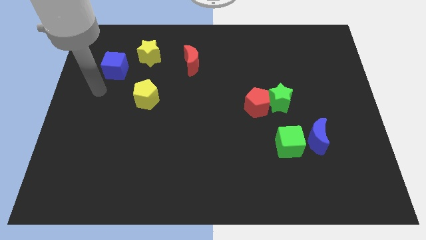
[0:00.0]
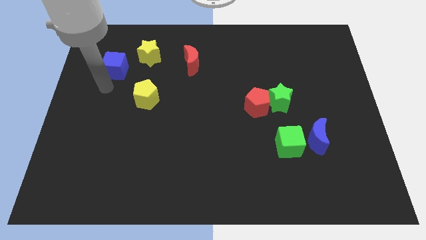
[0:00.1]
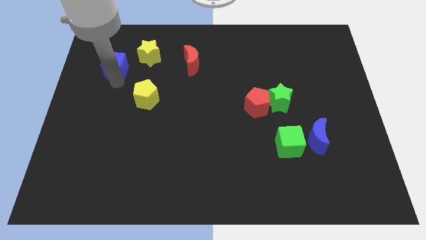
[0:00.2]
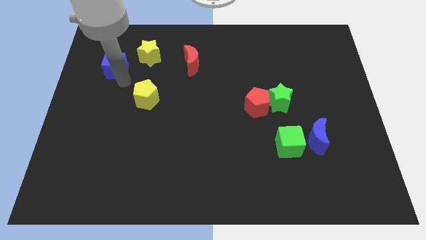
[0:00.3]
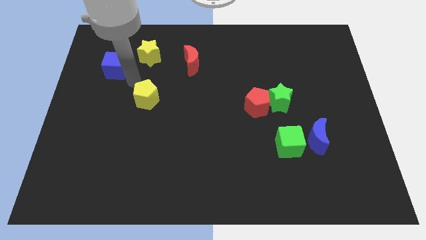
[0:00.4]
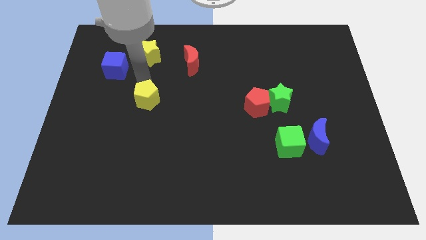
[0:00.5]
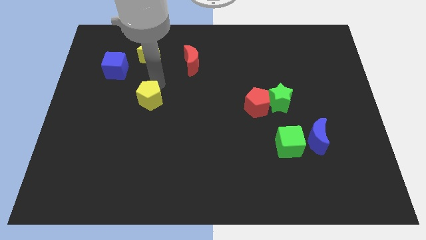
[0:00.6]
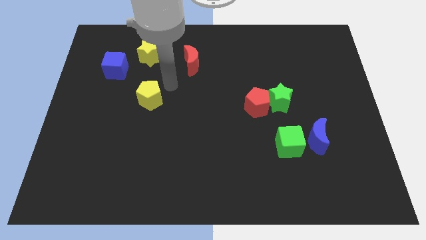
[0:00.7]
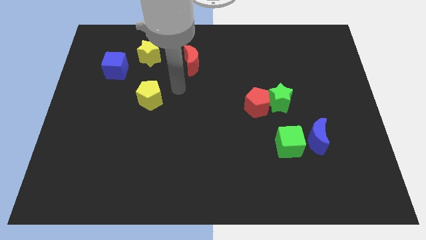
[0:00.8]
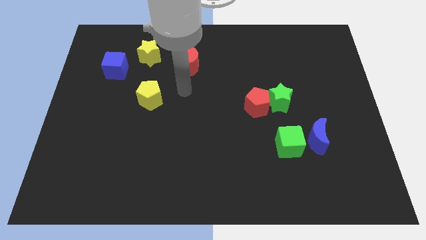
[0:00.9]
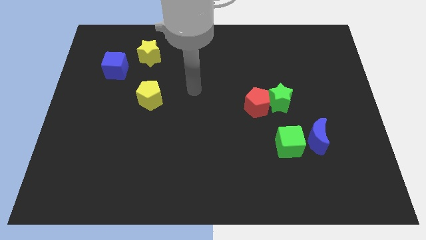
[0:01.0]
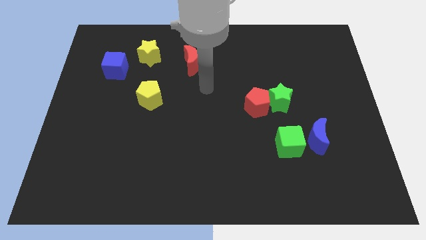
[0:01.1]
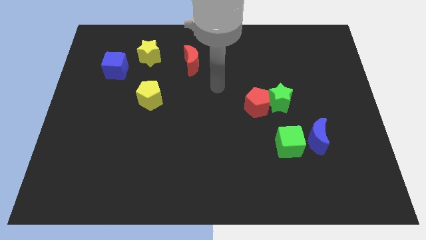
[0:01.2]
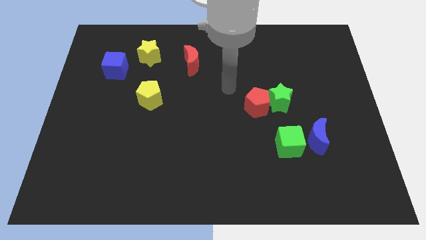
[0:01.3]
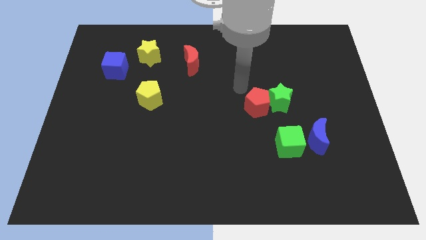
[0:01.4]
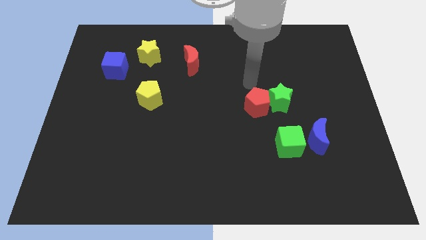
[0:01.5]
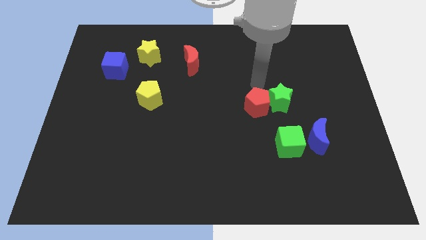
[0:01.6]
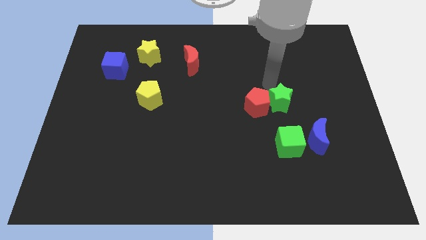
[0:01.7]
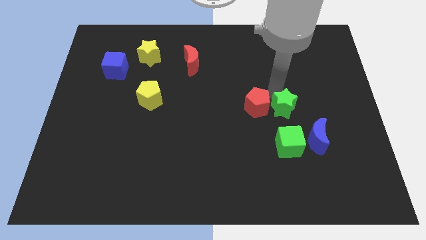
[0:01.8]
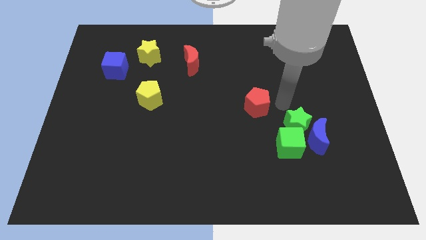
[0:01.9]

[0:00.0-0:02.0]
move the red pentagon away from the green star

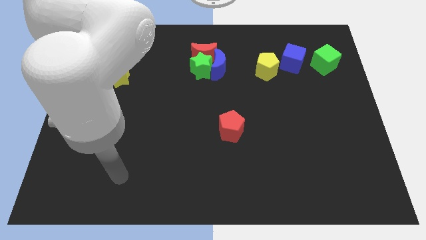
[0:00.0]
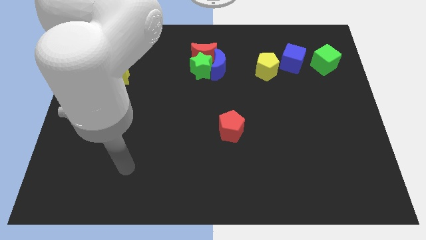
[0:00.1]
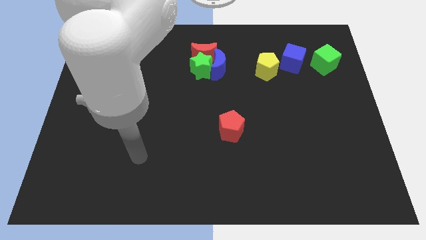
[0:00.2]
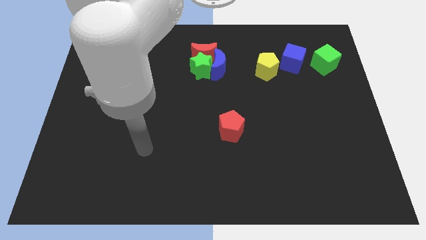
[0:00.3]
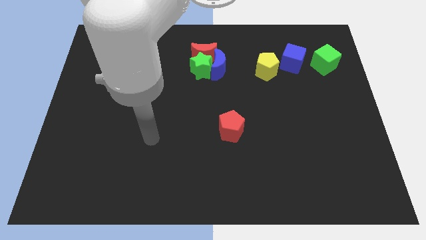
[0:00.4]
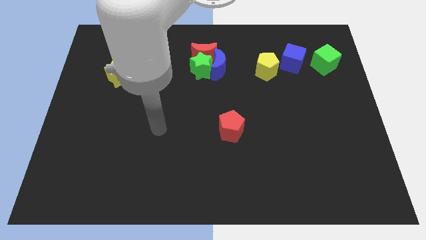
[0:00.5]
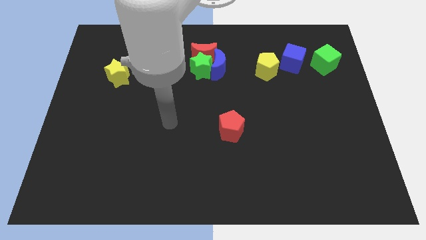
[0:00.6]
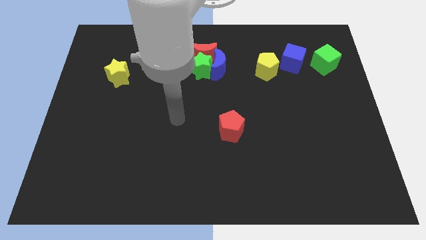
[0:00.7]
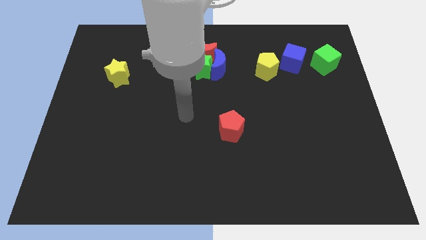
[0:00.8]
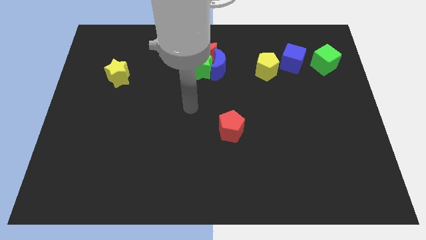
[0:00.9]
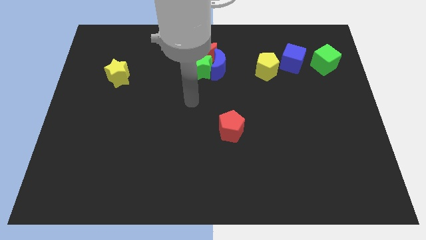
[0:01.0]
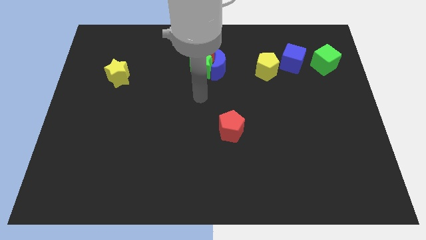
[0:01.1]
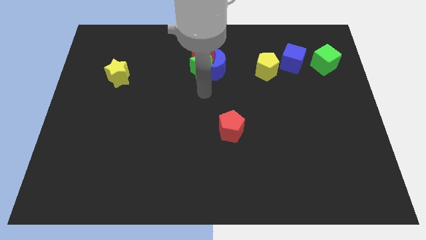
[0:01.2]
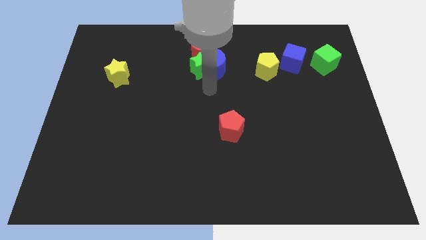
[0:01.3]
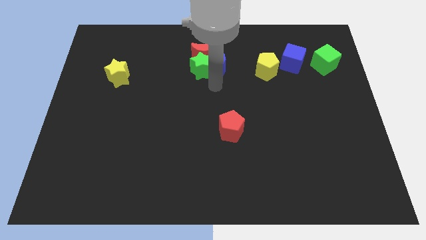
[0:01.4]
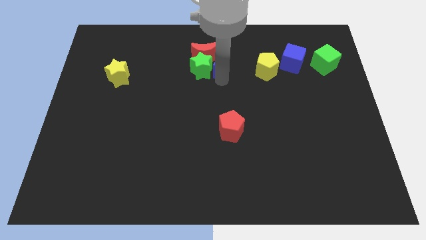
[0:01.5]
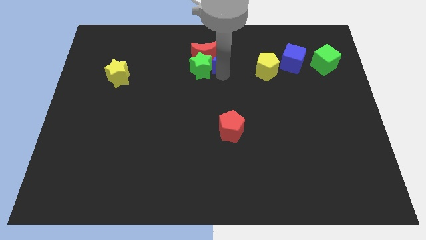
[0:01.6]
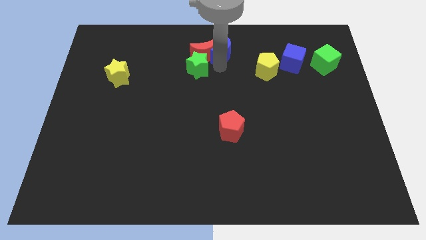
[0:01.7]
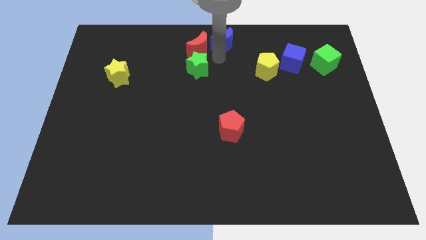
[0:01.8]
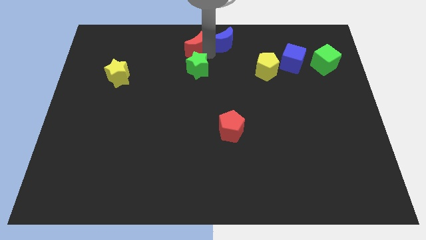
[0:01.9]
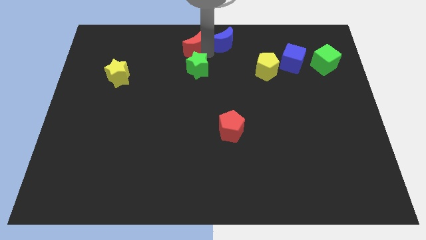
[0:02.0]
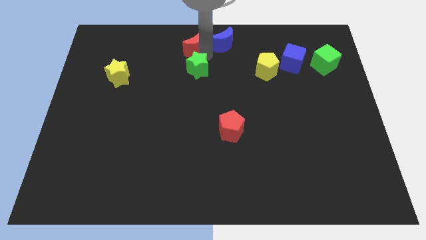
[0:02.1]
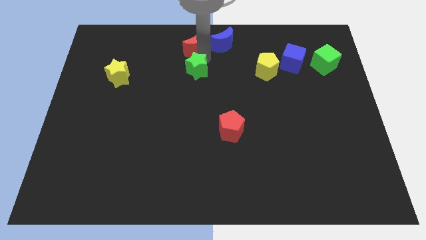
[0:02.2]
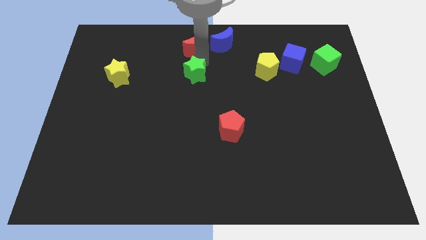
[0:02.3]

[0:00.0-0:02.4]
move the green star away from the blue moon and red moon

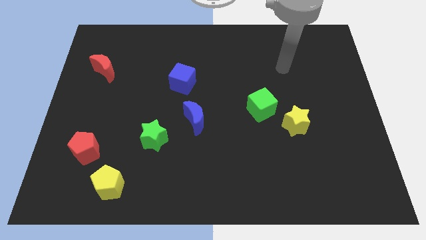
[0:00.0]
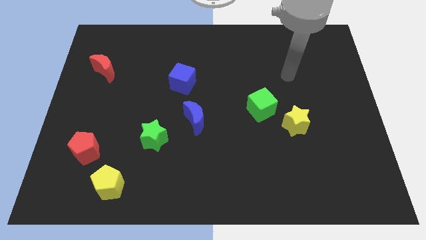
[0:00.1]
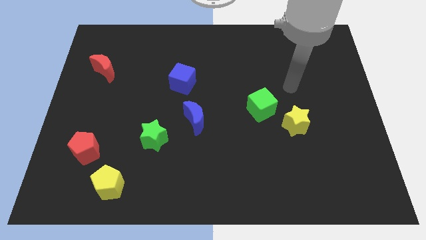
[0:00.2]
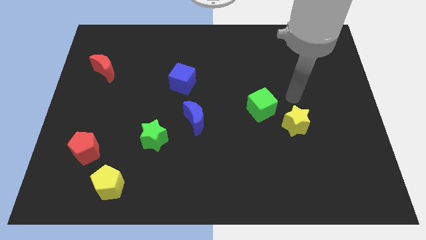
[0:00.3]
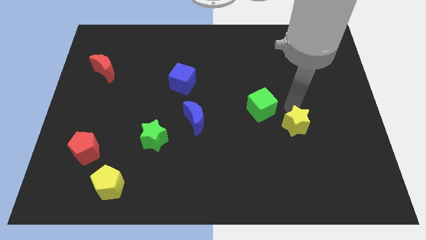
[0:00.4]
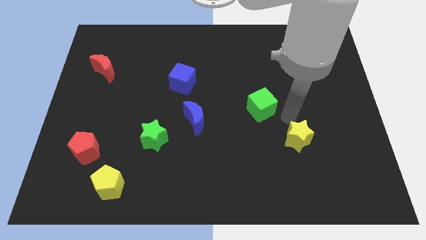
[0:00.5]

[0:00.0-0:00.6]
separate the green cube from the yellow star

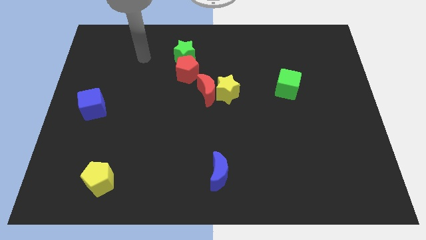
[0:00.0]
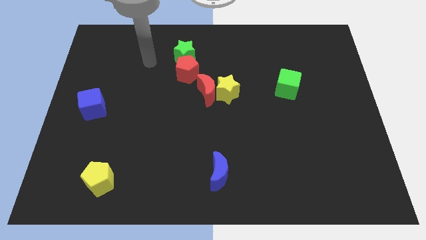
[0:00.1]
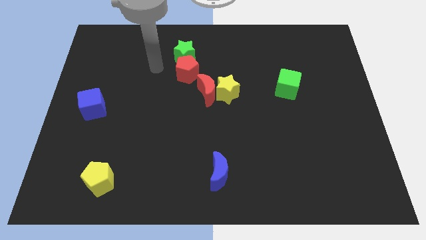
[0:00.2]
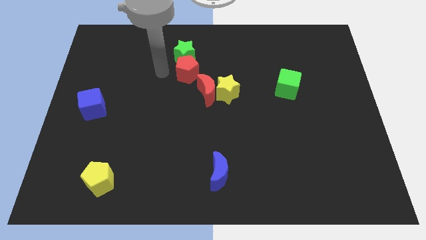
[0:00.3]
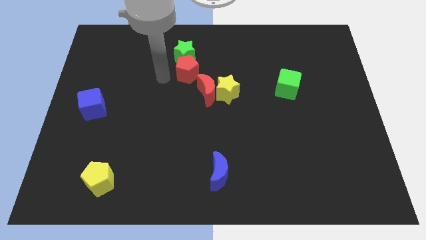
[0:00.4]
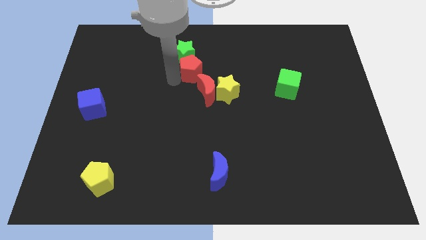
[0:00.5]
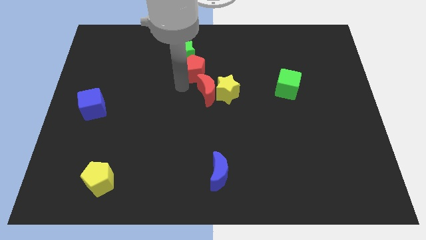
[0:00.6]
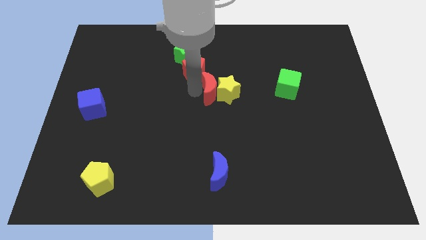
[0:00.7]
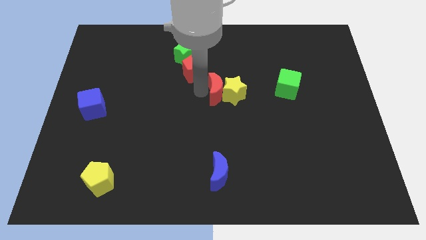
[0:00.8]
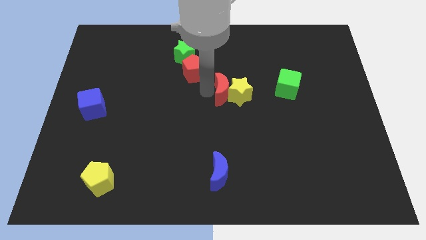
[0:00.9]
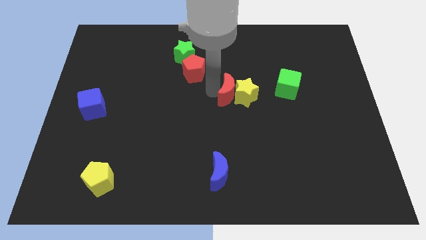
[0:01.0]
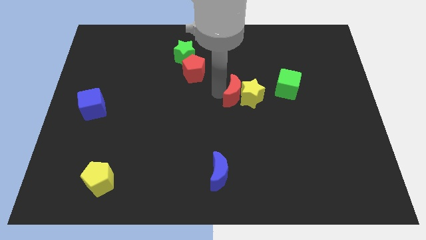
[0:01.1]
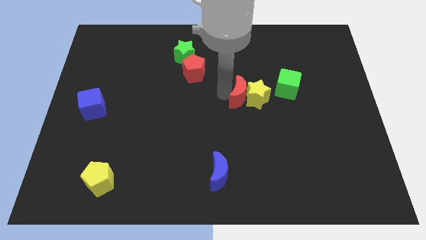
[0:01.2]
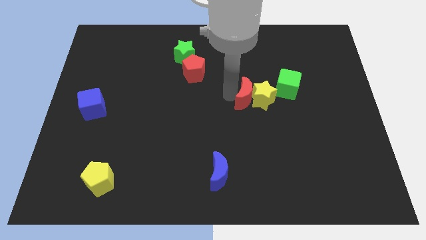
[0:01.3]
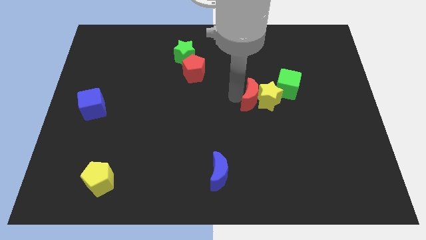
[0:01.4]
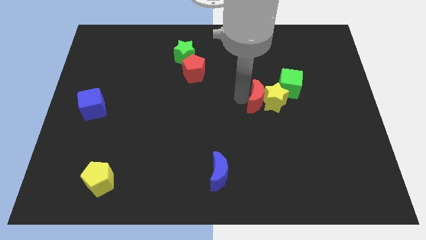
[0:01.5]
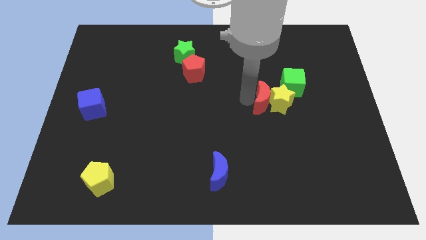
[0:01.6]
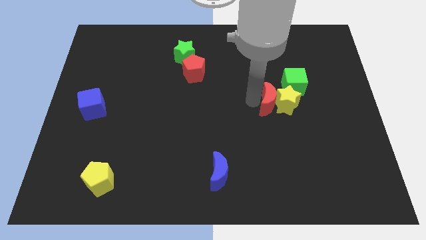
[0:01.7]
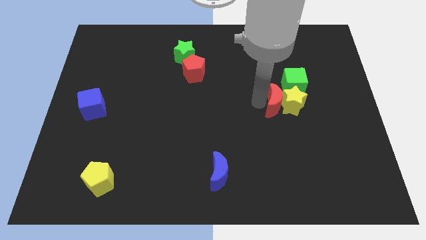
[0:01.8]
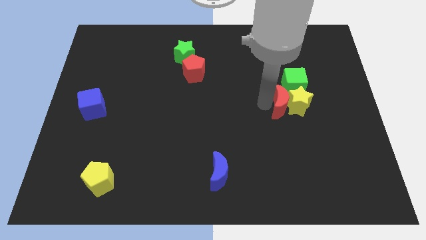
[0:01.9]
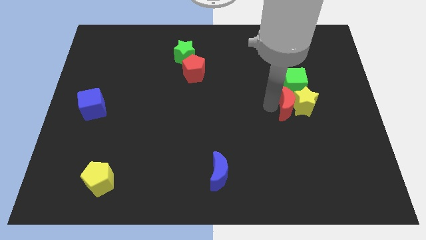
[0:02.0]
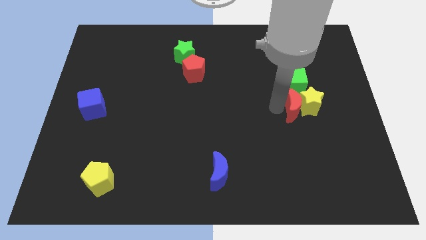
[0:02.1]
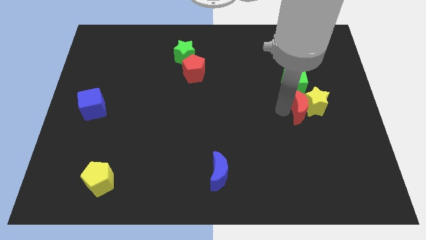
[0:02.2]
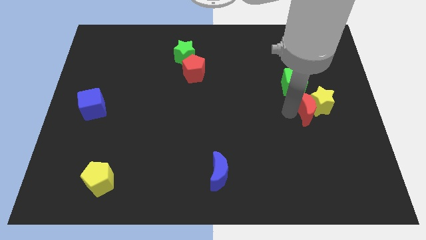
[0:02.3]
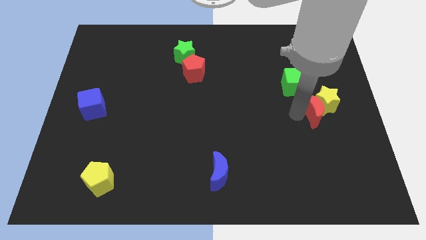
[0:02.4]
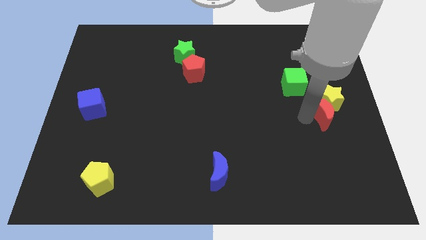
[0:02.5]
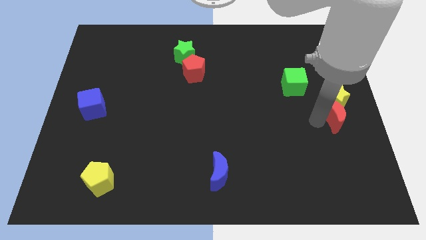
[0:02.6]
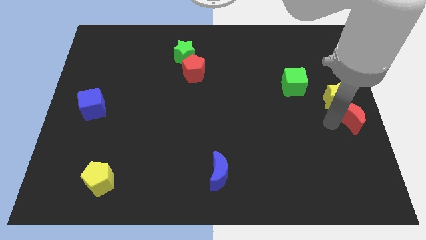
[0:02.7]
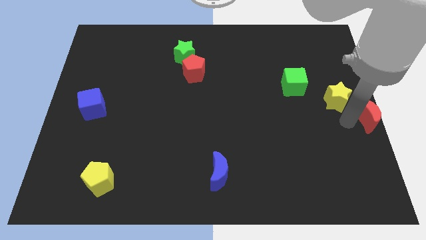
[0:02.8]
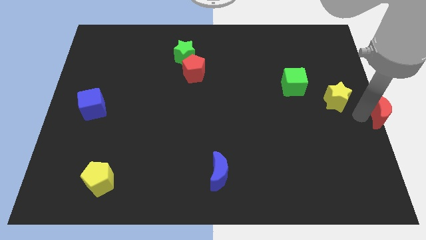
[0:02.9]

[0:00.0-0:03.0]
pull the yellow star apart from the red moon

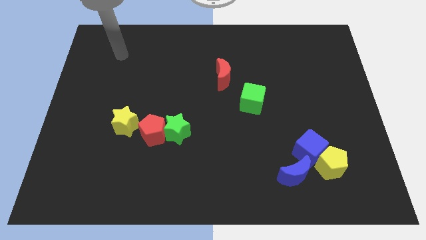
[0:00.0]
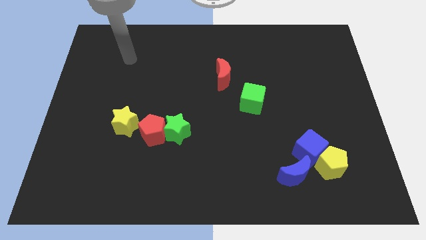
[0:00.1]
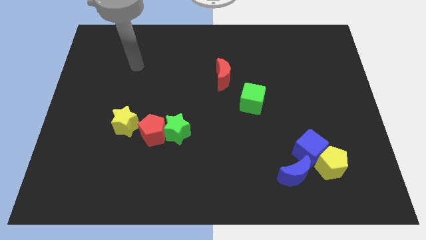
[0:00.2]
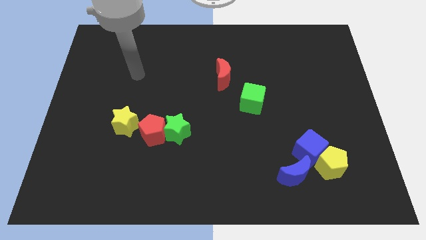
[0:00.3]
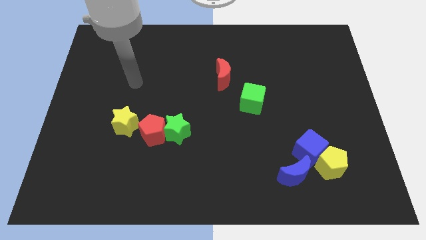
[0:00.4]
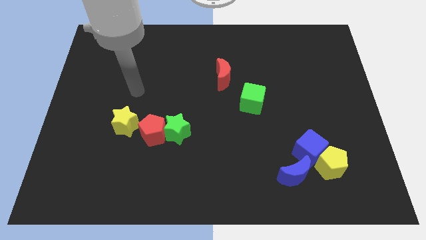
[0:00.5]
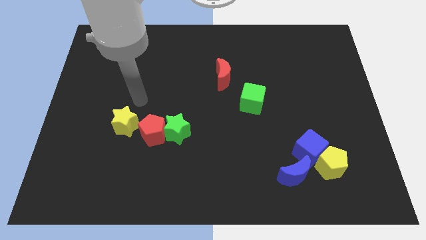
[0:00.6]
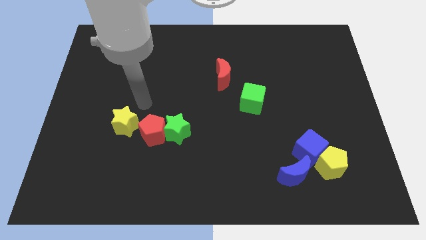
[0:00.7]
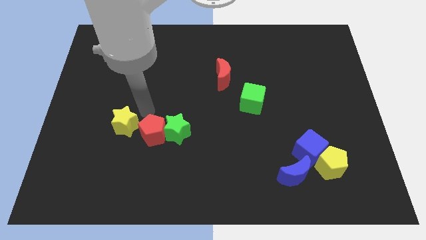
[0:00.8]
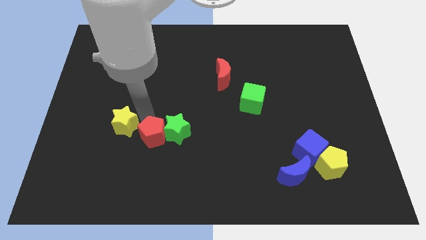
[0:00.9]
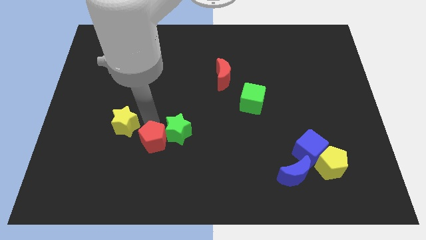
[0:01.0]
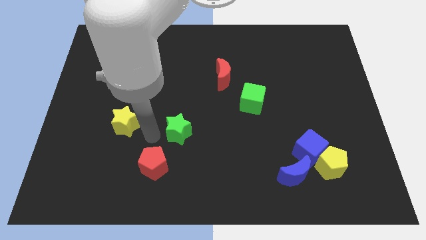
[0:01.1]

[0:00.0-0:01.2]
move the green star away from the red pentagon

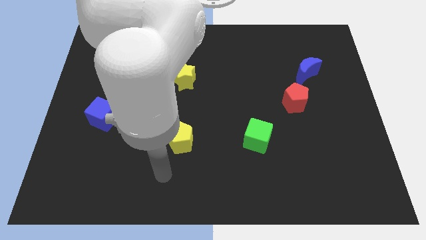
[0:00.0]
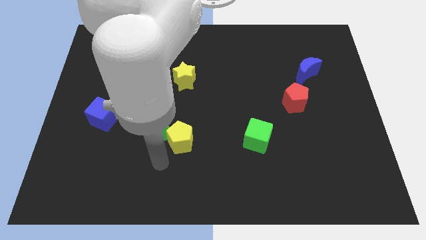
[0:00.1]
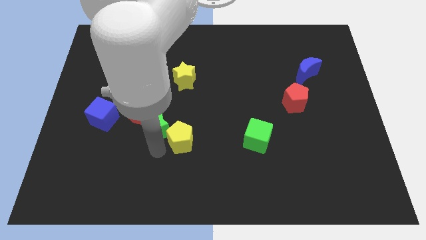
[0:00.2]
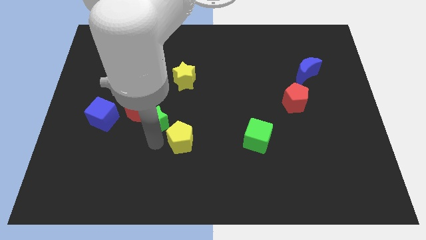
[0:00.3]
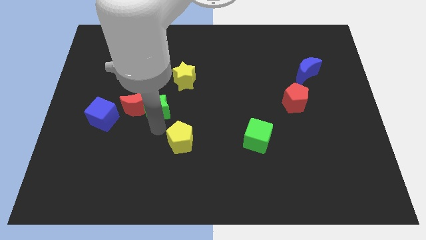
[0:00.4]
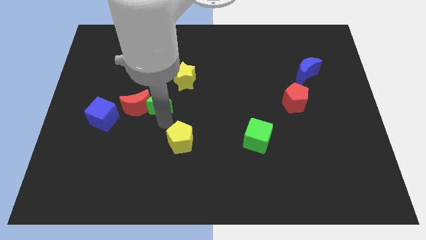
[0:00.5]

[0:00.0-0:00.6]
move the yellow pentagon away from the green star